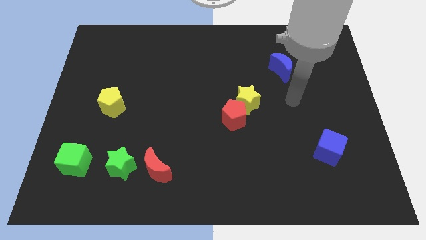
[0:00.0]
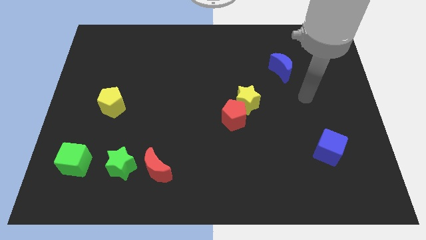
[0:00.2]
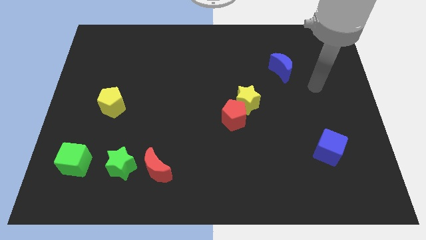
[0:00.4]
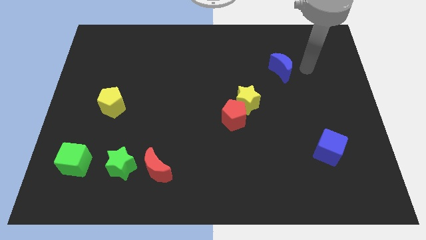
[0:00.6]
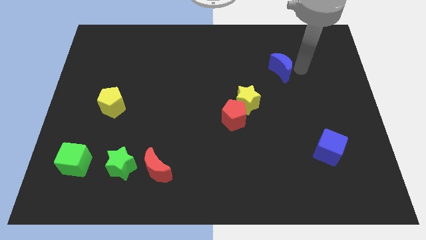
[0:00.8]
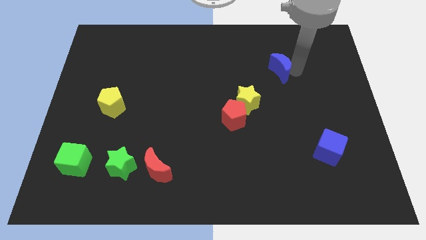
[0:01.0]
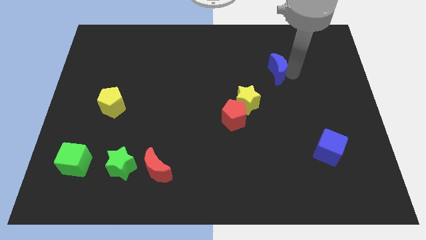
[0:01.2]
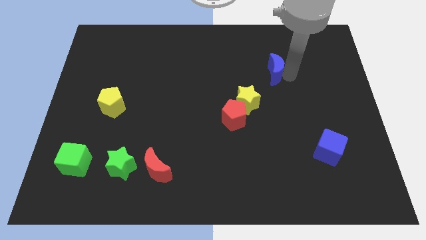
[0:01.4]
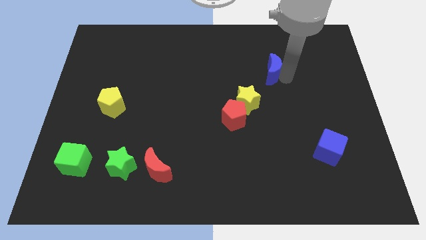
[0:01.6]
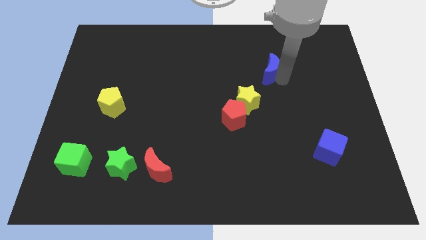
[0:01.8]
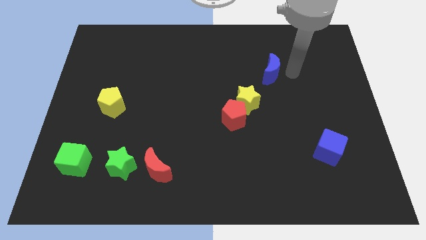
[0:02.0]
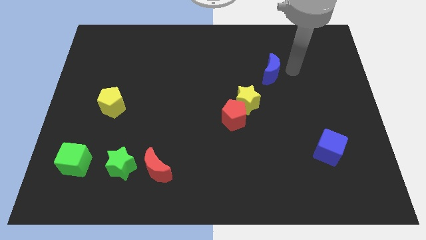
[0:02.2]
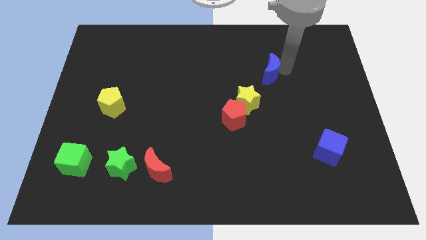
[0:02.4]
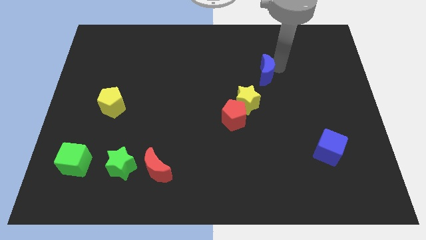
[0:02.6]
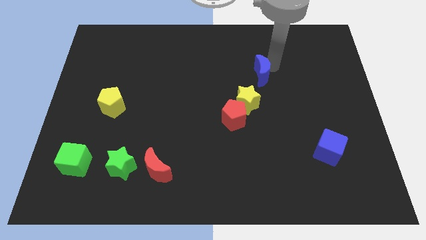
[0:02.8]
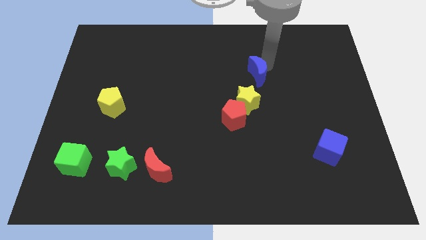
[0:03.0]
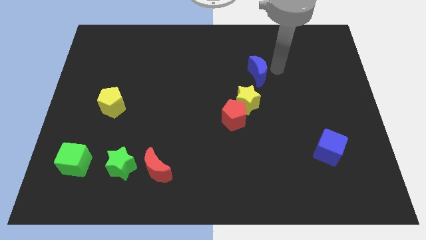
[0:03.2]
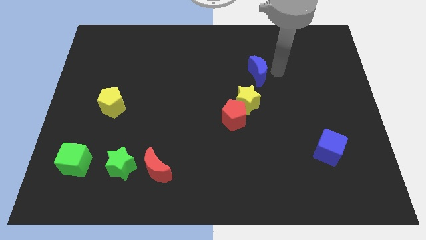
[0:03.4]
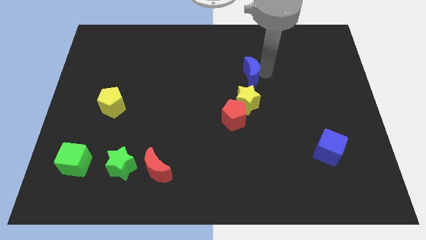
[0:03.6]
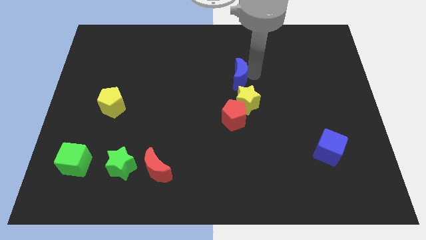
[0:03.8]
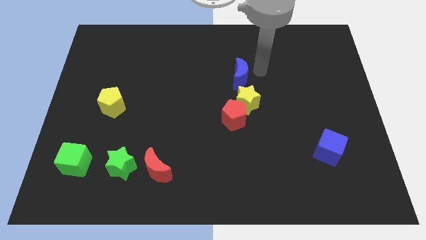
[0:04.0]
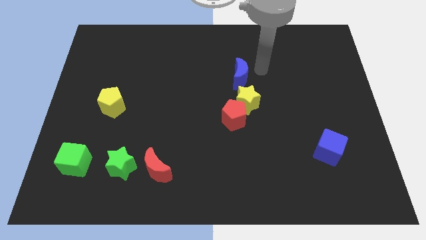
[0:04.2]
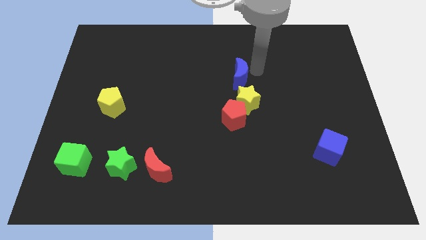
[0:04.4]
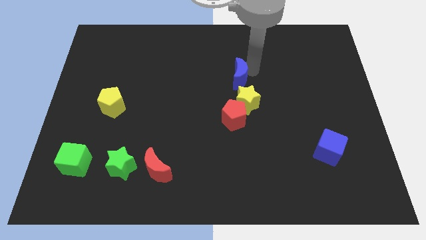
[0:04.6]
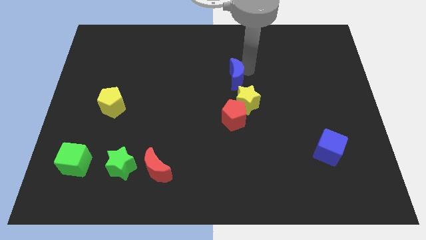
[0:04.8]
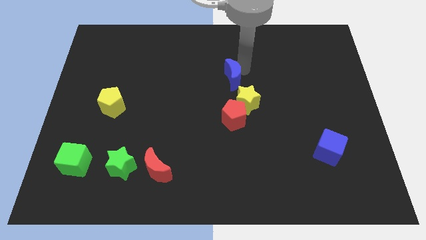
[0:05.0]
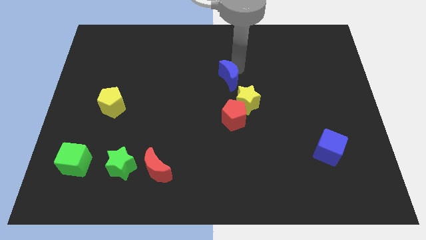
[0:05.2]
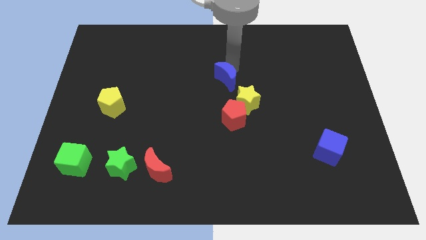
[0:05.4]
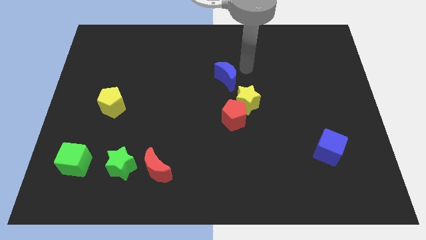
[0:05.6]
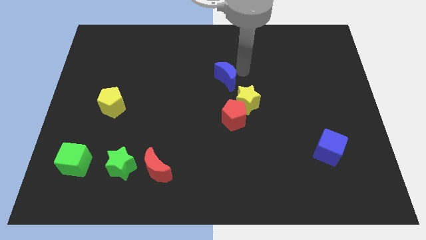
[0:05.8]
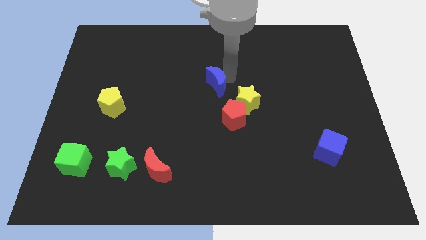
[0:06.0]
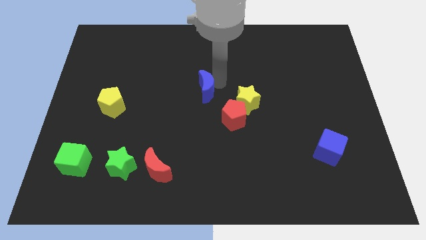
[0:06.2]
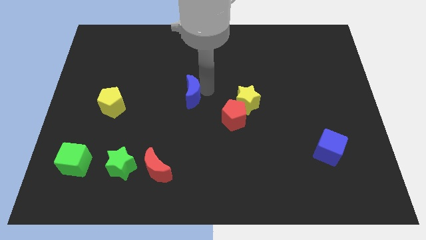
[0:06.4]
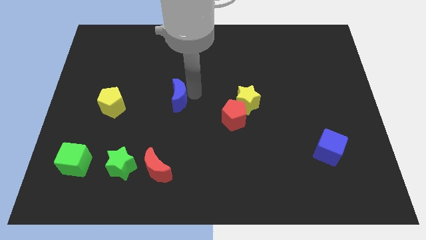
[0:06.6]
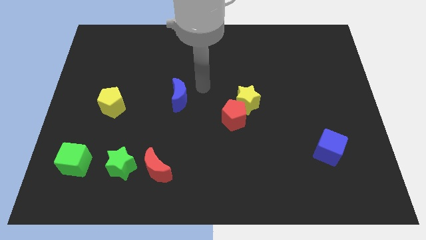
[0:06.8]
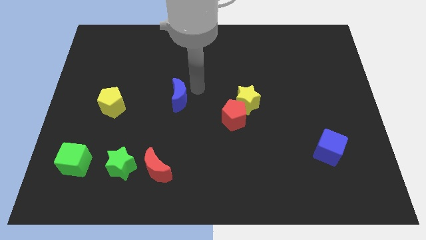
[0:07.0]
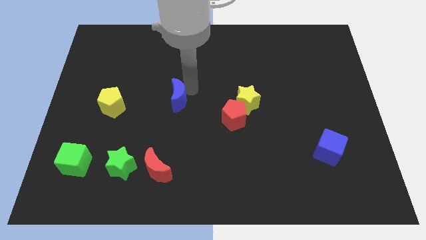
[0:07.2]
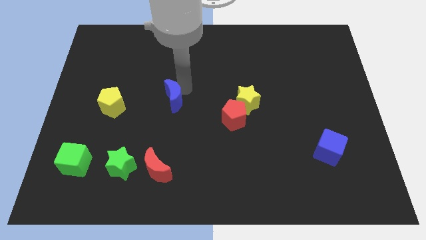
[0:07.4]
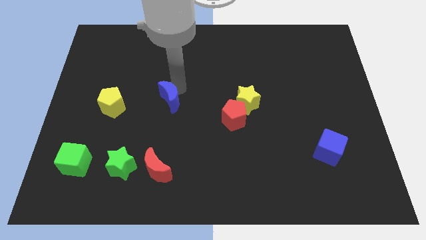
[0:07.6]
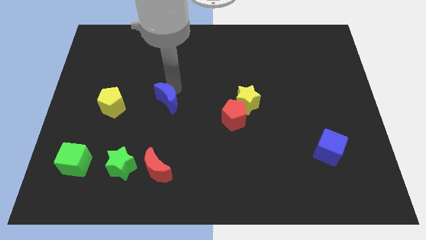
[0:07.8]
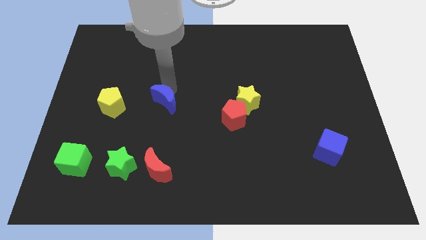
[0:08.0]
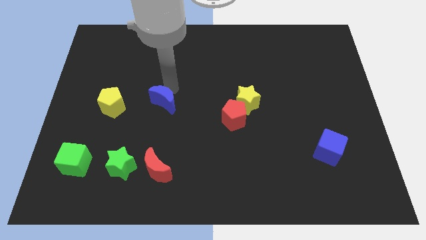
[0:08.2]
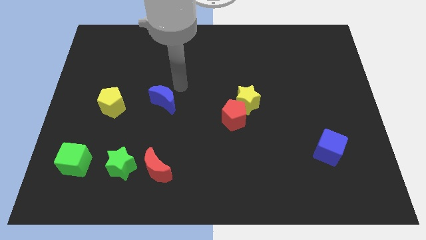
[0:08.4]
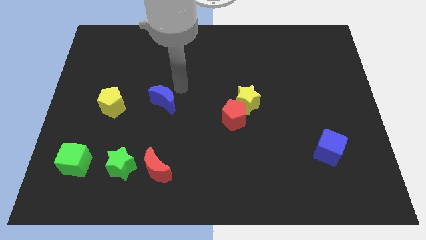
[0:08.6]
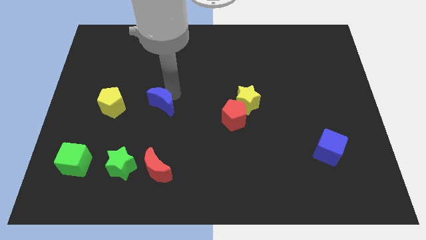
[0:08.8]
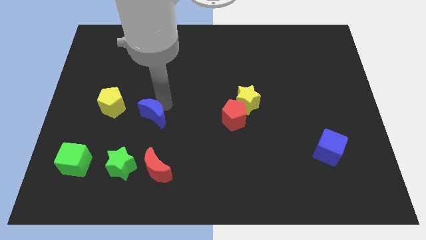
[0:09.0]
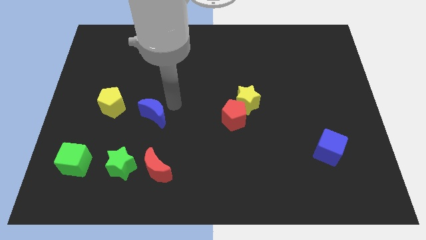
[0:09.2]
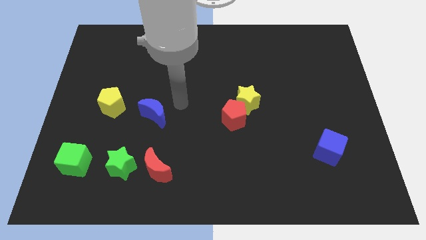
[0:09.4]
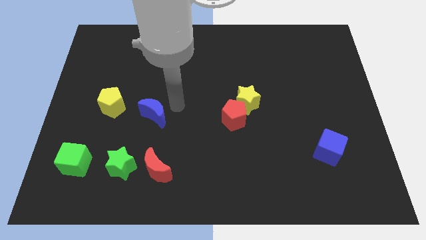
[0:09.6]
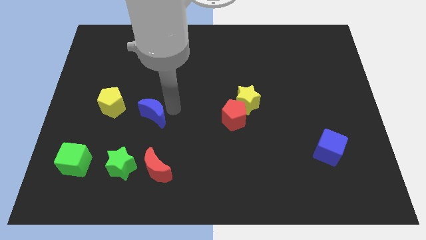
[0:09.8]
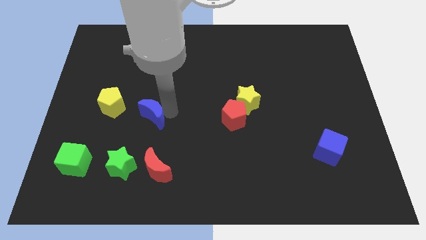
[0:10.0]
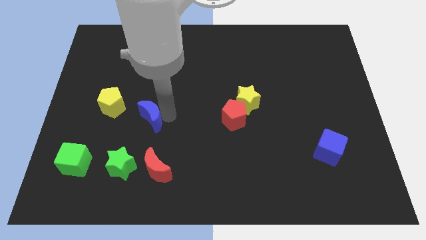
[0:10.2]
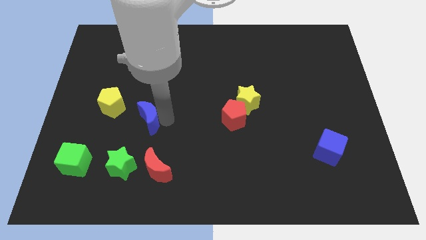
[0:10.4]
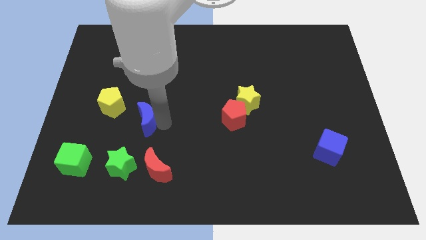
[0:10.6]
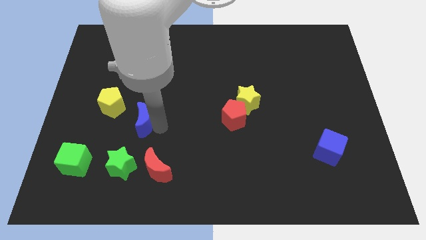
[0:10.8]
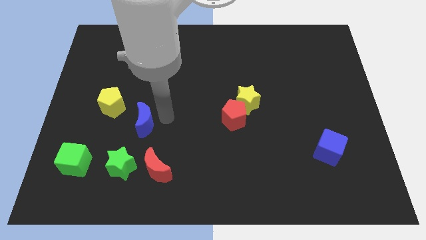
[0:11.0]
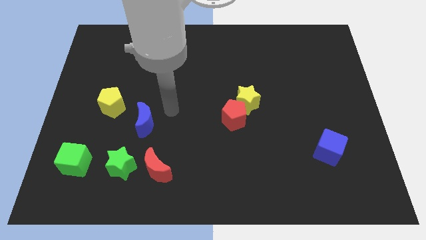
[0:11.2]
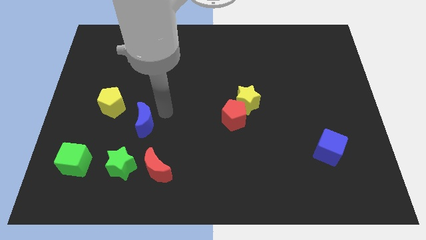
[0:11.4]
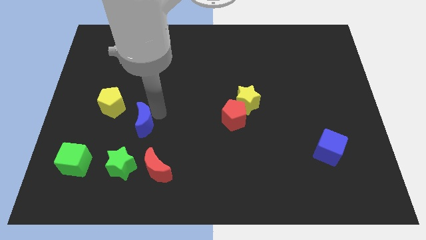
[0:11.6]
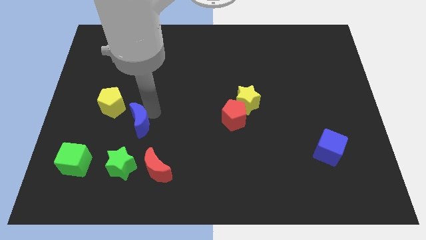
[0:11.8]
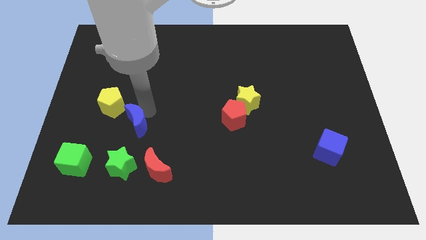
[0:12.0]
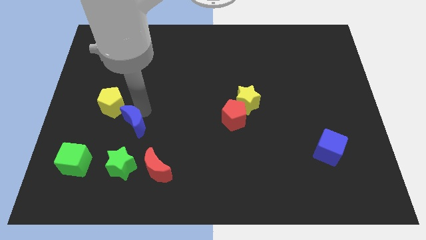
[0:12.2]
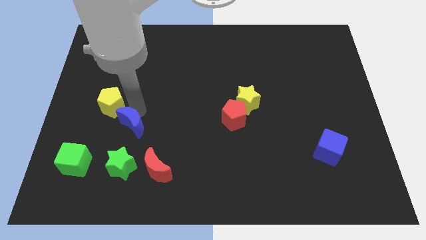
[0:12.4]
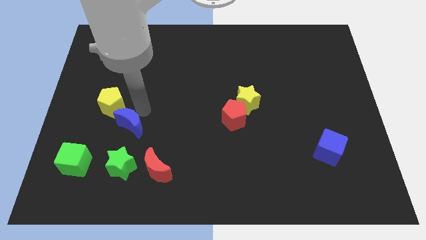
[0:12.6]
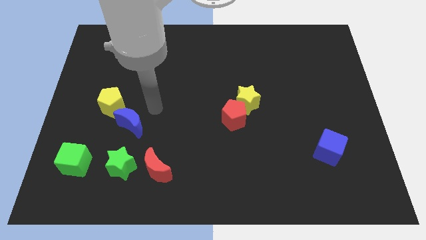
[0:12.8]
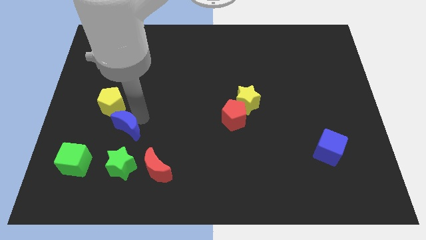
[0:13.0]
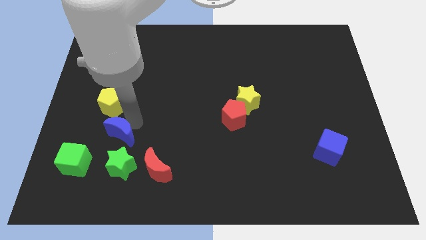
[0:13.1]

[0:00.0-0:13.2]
push the blue moon to the top left of the green star
